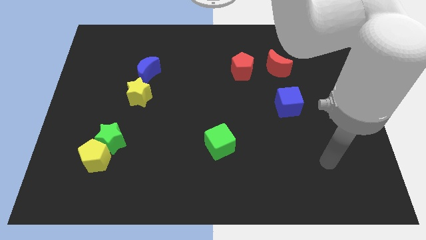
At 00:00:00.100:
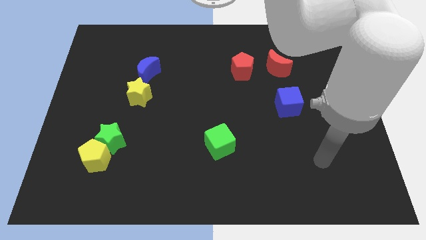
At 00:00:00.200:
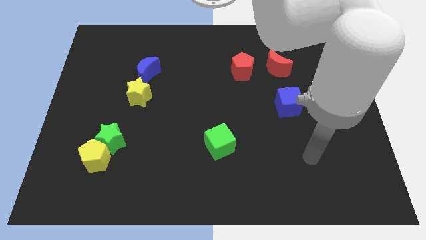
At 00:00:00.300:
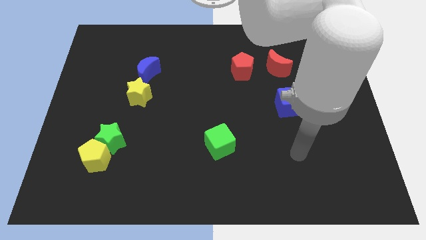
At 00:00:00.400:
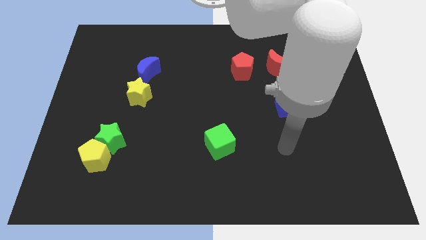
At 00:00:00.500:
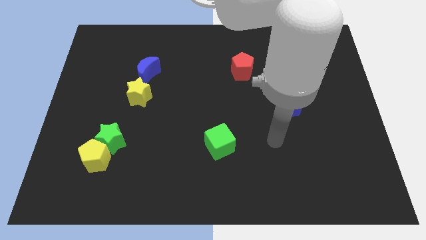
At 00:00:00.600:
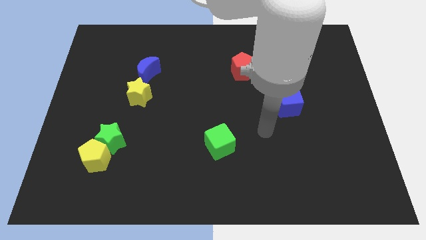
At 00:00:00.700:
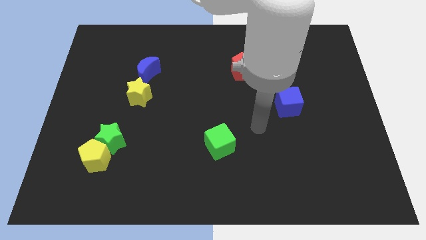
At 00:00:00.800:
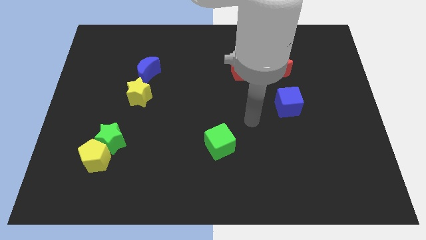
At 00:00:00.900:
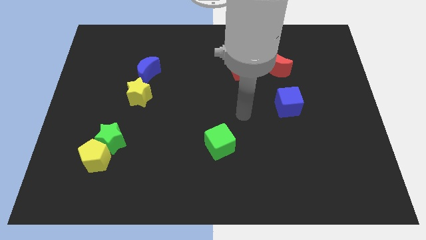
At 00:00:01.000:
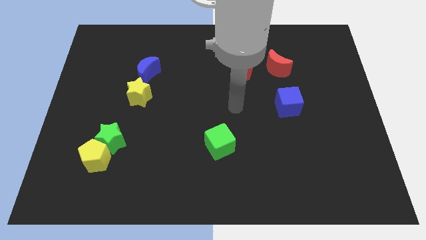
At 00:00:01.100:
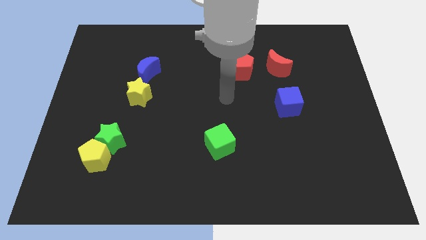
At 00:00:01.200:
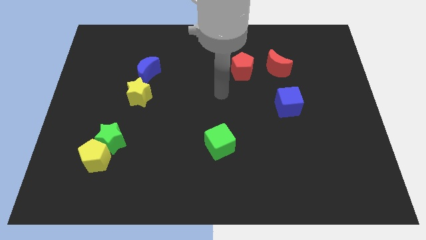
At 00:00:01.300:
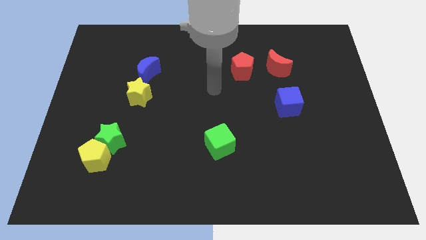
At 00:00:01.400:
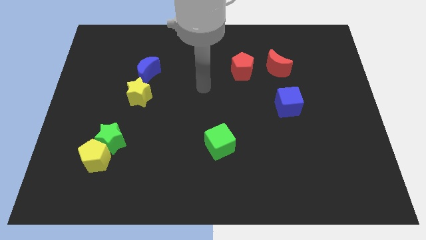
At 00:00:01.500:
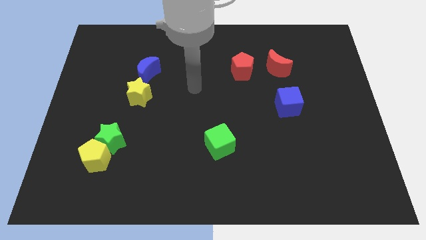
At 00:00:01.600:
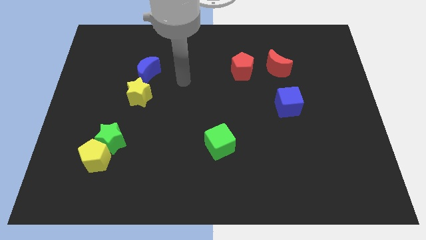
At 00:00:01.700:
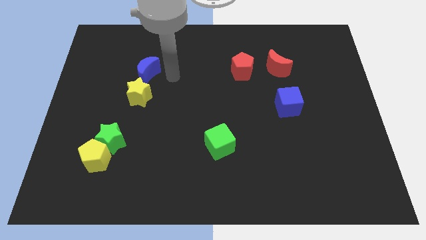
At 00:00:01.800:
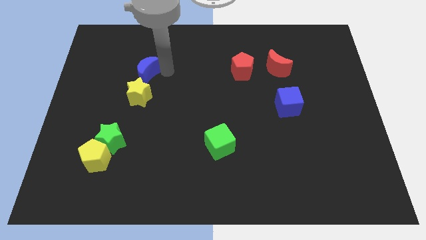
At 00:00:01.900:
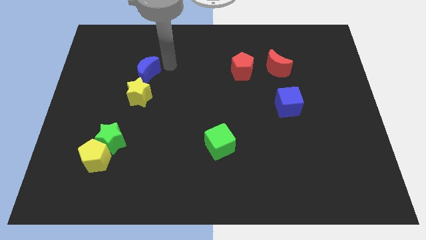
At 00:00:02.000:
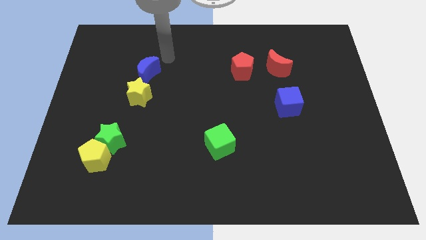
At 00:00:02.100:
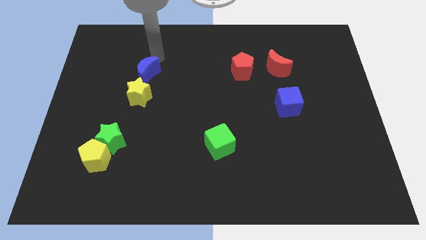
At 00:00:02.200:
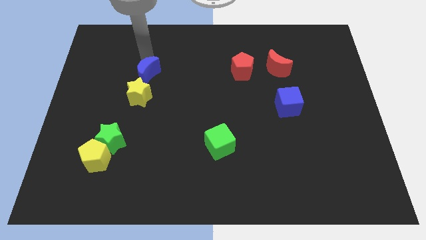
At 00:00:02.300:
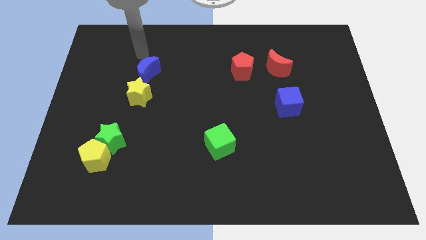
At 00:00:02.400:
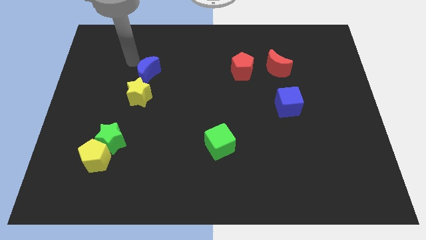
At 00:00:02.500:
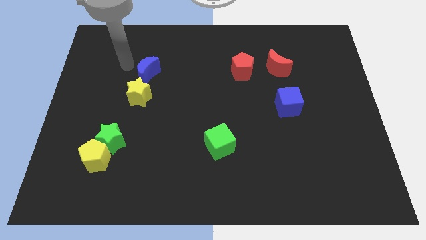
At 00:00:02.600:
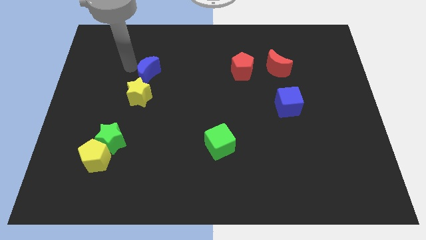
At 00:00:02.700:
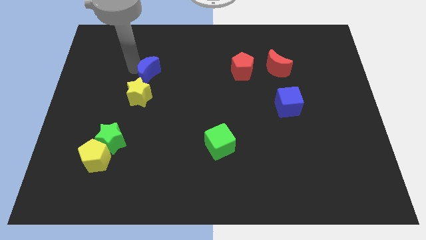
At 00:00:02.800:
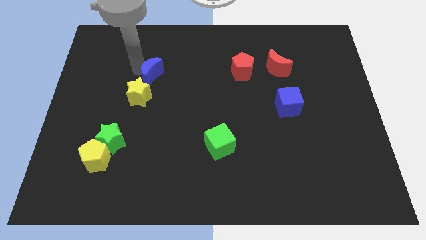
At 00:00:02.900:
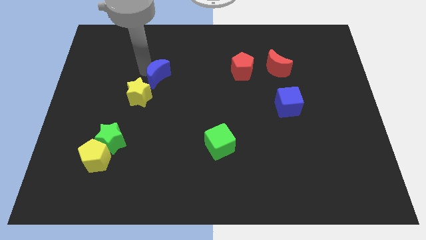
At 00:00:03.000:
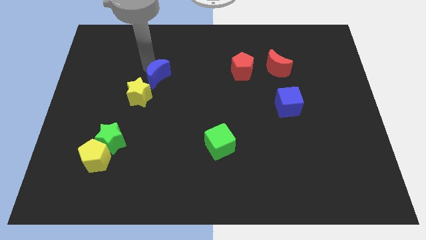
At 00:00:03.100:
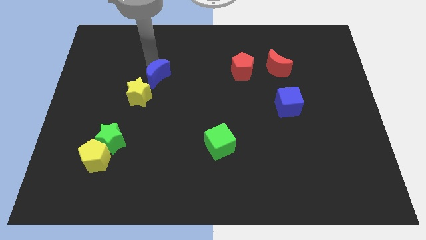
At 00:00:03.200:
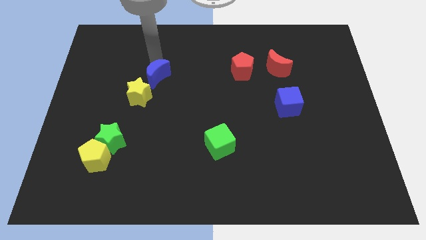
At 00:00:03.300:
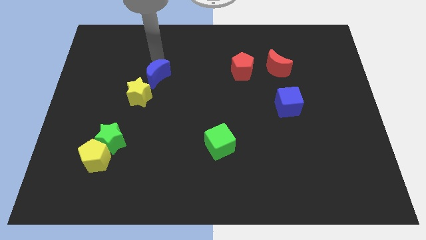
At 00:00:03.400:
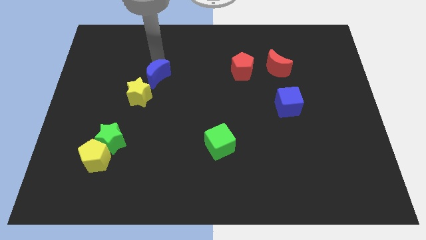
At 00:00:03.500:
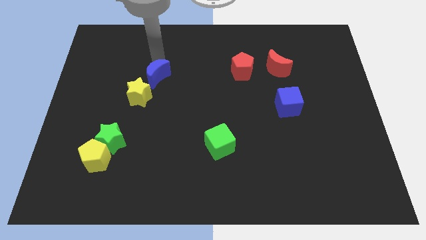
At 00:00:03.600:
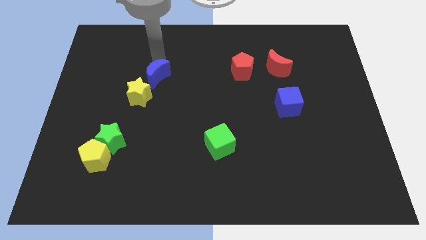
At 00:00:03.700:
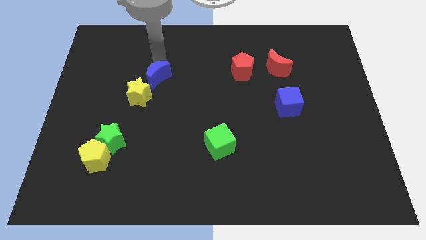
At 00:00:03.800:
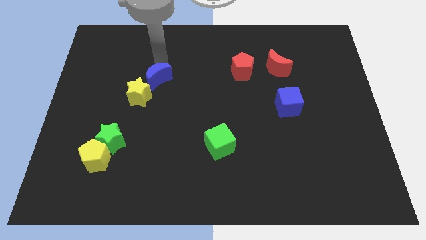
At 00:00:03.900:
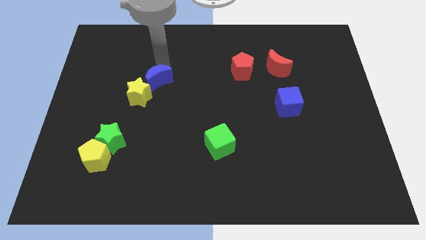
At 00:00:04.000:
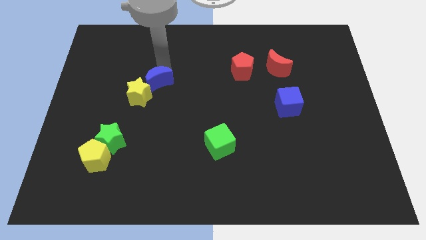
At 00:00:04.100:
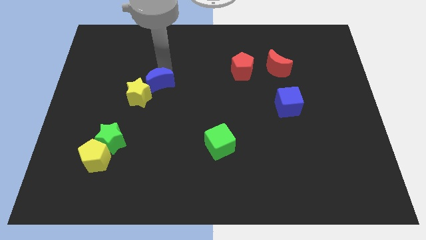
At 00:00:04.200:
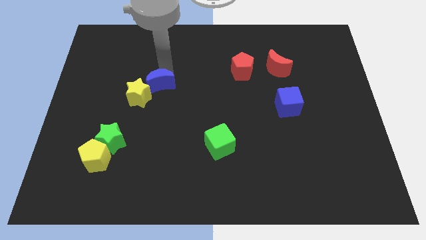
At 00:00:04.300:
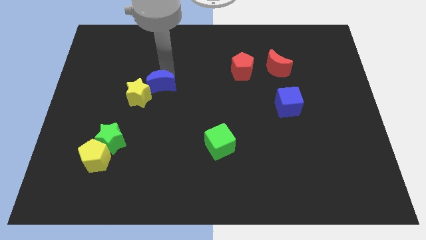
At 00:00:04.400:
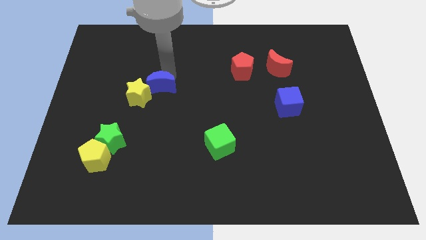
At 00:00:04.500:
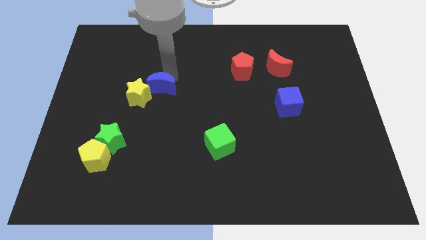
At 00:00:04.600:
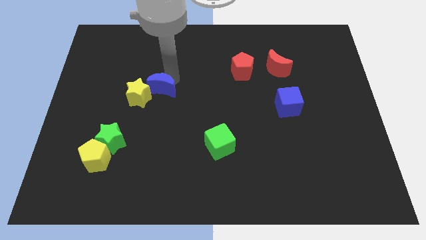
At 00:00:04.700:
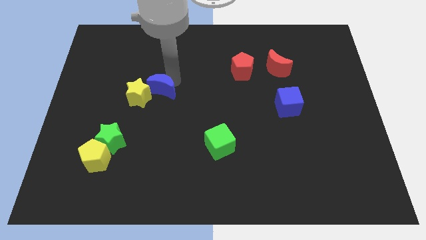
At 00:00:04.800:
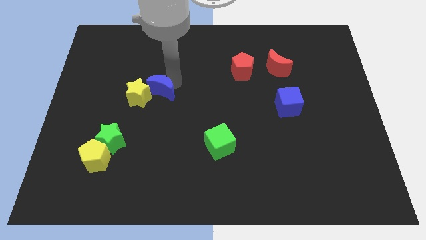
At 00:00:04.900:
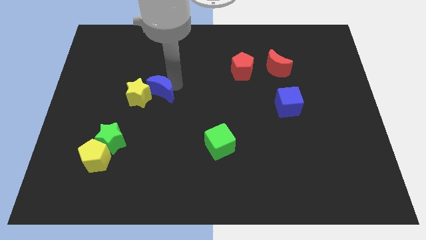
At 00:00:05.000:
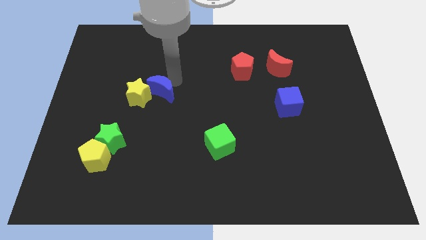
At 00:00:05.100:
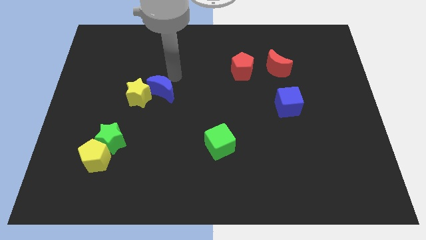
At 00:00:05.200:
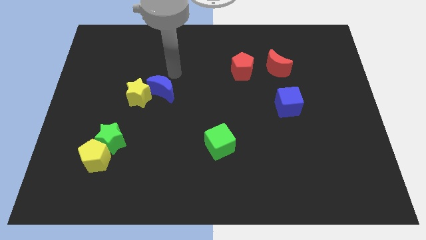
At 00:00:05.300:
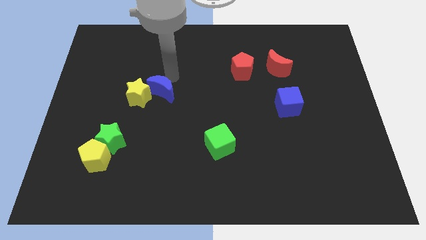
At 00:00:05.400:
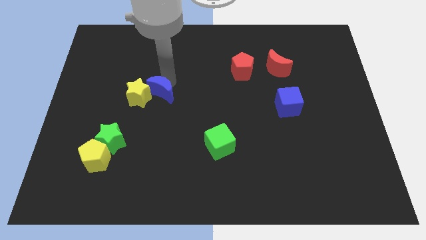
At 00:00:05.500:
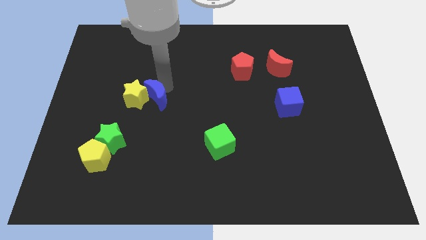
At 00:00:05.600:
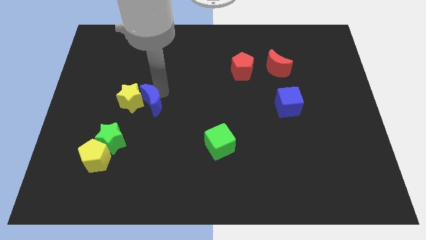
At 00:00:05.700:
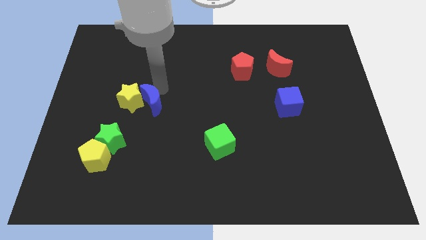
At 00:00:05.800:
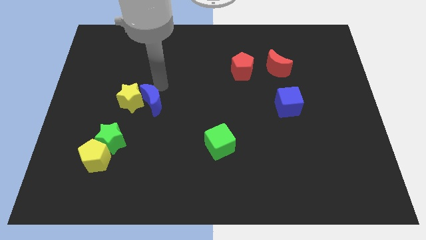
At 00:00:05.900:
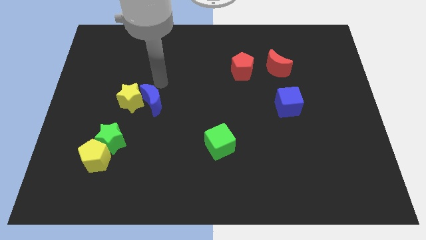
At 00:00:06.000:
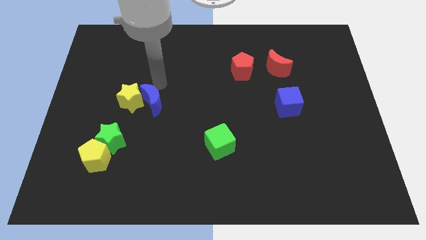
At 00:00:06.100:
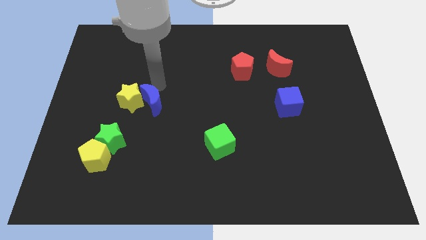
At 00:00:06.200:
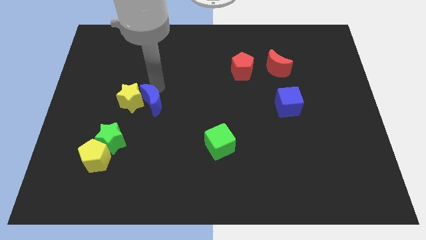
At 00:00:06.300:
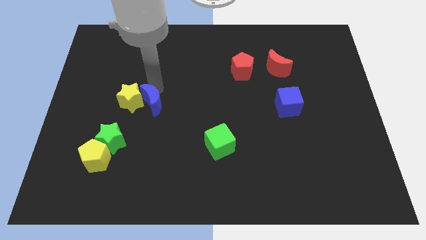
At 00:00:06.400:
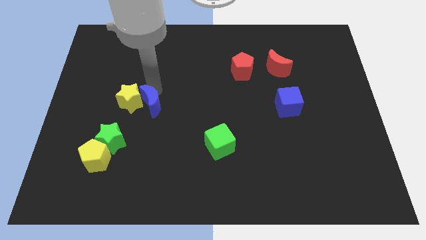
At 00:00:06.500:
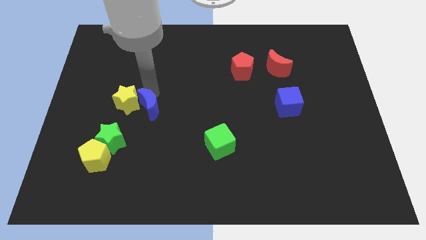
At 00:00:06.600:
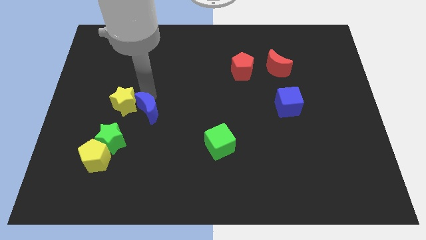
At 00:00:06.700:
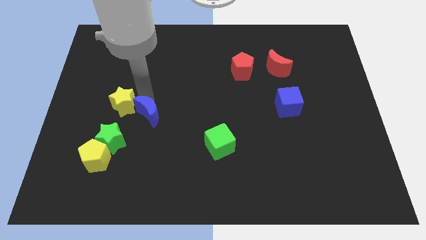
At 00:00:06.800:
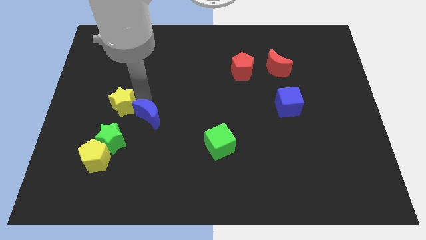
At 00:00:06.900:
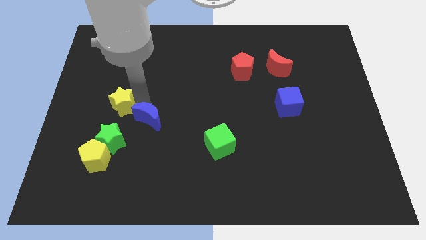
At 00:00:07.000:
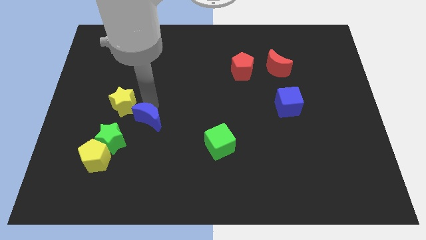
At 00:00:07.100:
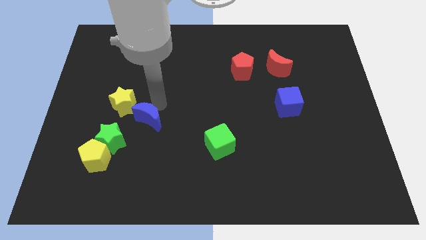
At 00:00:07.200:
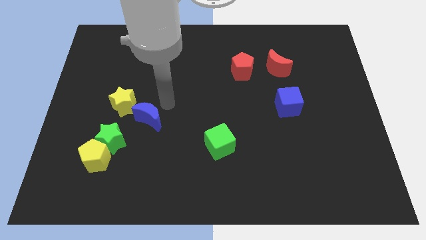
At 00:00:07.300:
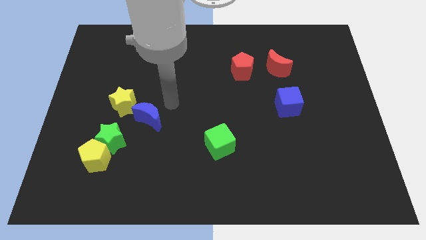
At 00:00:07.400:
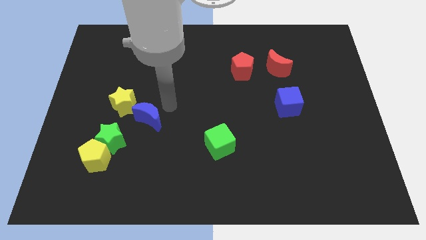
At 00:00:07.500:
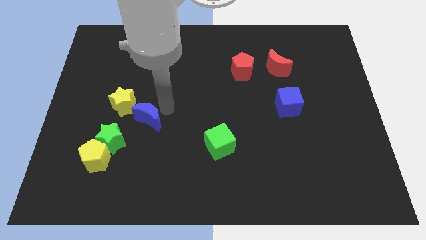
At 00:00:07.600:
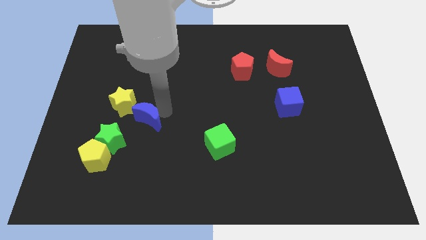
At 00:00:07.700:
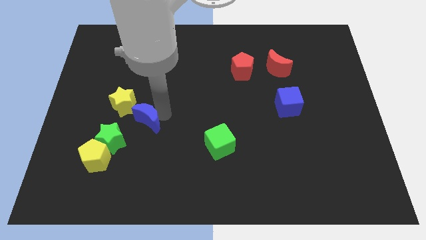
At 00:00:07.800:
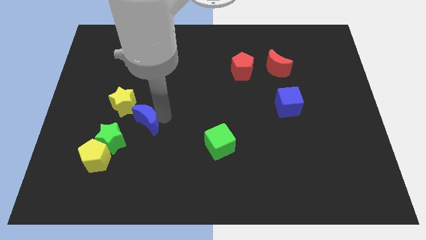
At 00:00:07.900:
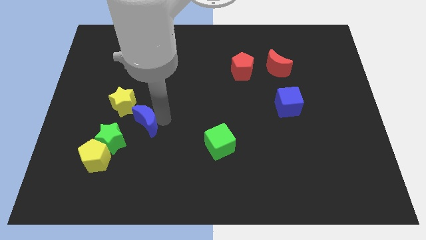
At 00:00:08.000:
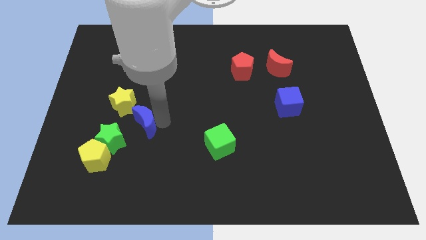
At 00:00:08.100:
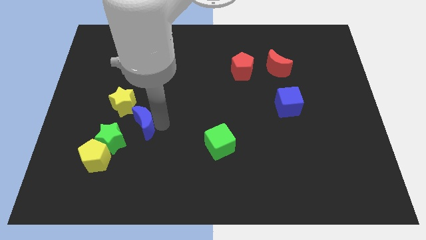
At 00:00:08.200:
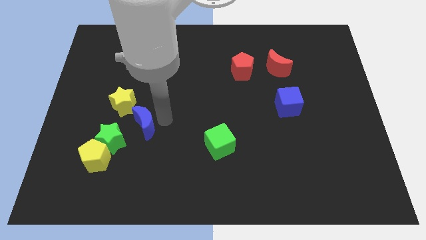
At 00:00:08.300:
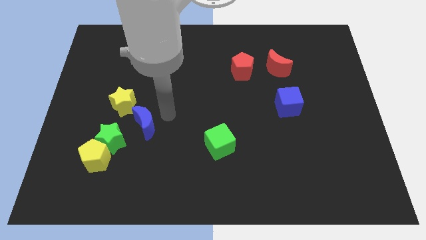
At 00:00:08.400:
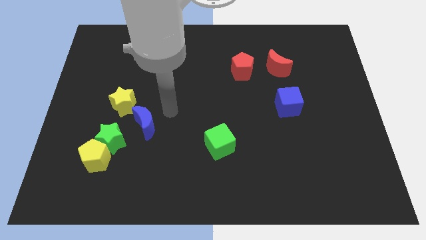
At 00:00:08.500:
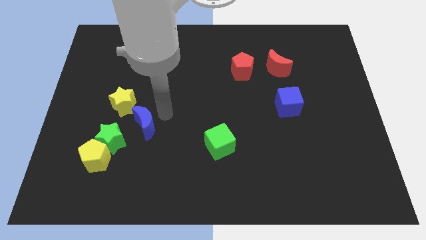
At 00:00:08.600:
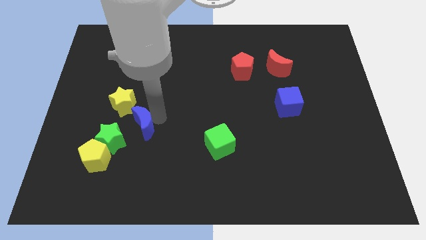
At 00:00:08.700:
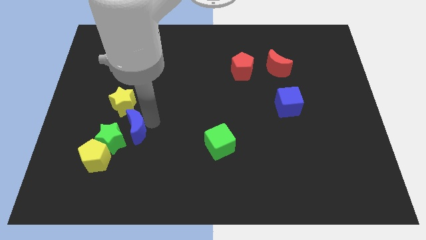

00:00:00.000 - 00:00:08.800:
put the blue moon below the yellow star
